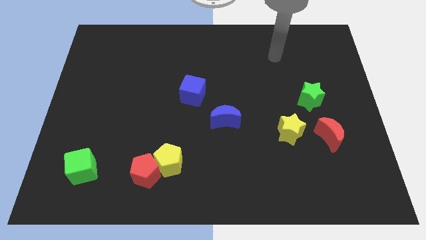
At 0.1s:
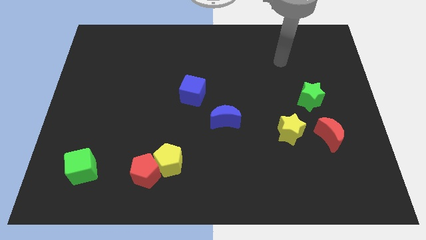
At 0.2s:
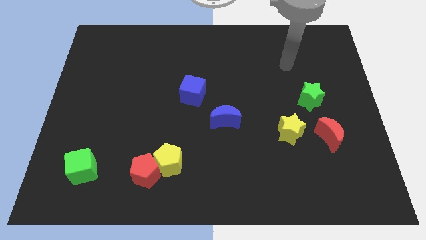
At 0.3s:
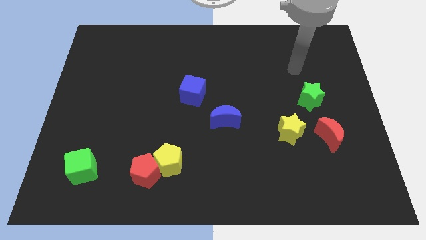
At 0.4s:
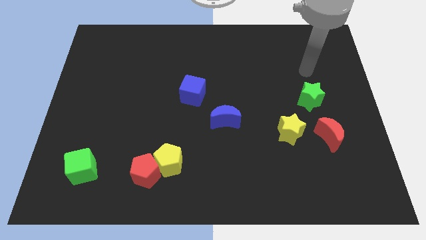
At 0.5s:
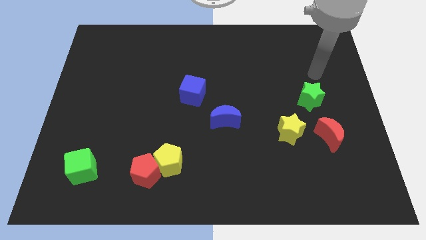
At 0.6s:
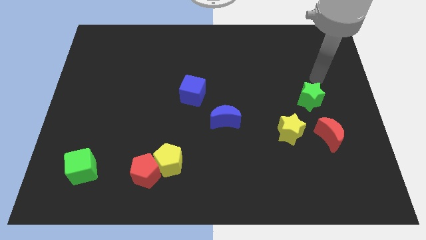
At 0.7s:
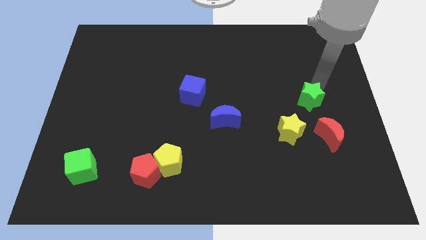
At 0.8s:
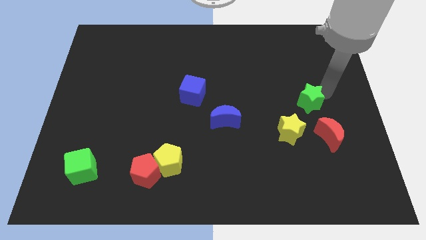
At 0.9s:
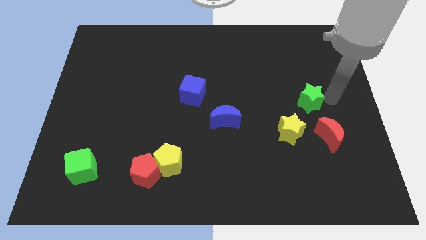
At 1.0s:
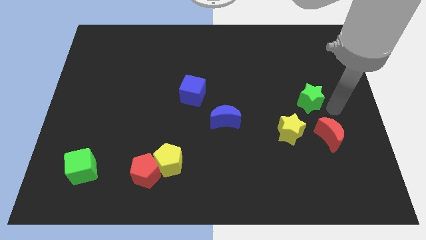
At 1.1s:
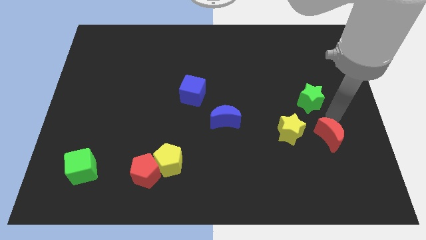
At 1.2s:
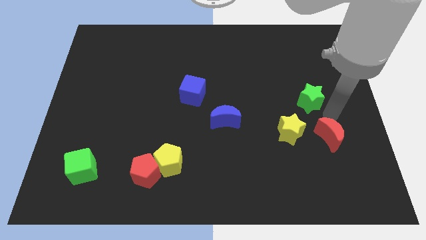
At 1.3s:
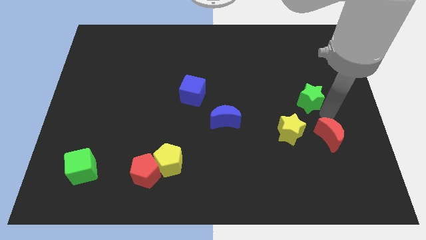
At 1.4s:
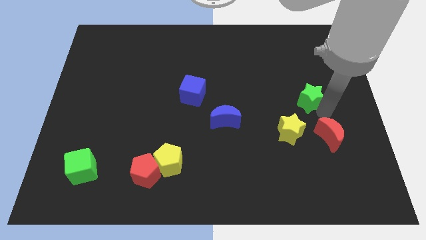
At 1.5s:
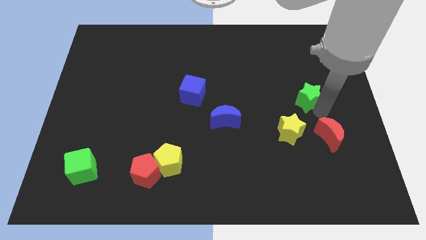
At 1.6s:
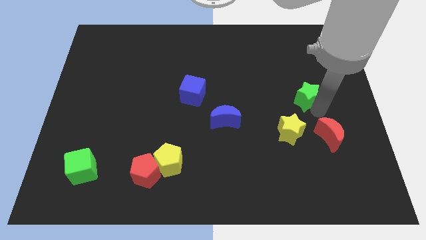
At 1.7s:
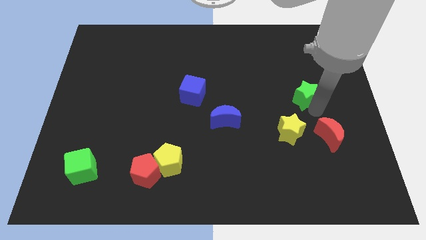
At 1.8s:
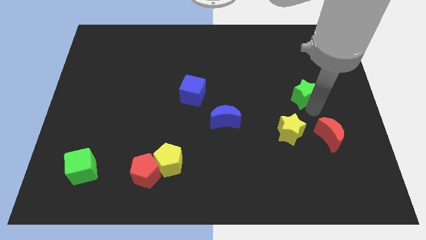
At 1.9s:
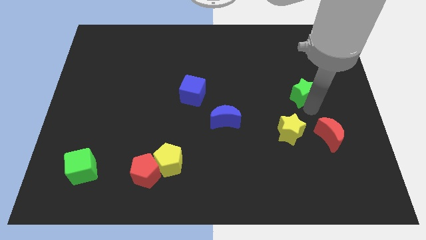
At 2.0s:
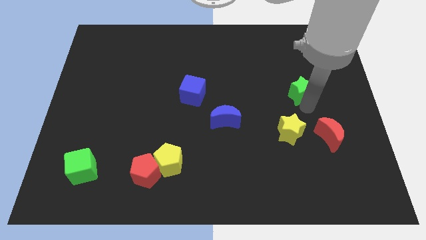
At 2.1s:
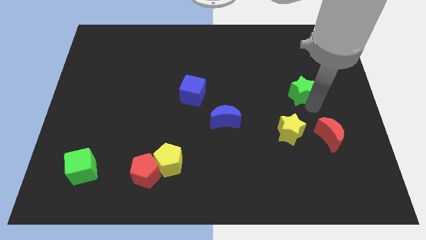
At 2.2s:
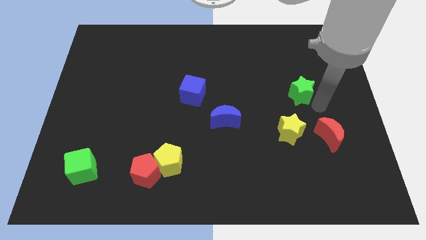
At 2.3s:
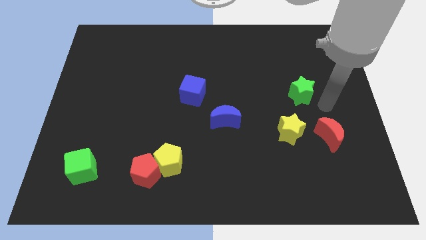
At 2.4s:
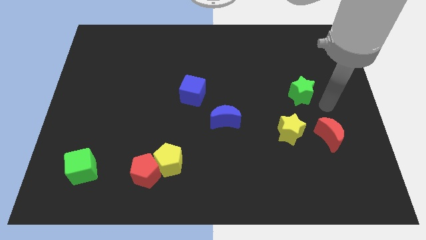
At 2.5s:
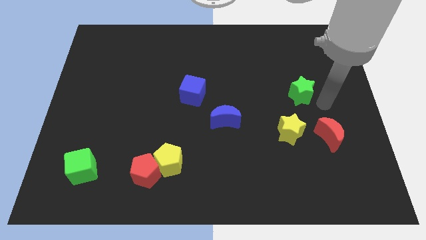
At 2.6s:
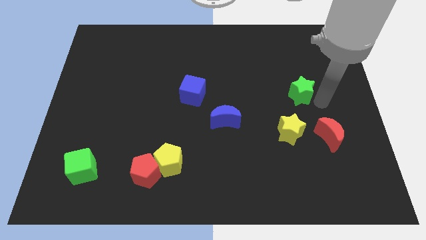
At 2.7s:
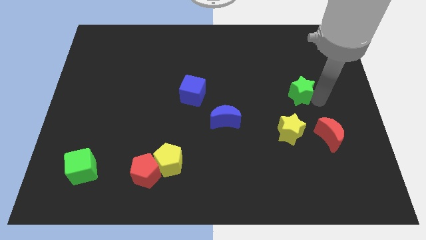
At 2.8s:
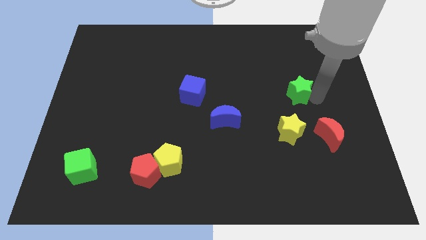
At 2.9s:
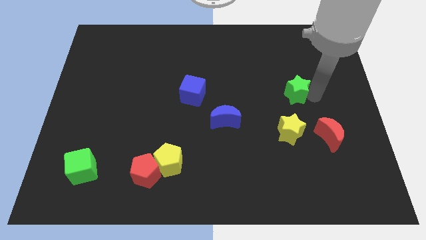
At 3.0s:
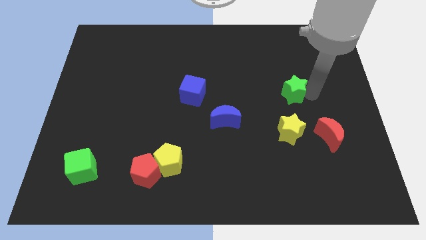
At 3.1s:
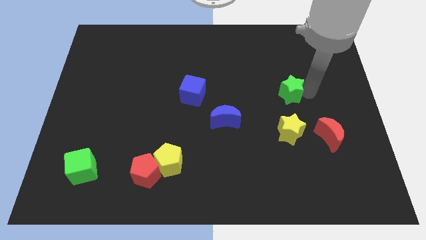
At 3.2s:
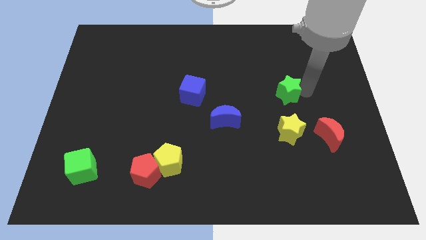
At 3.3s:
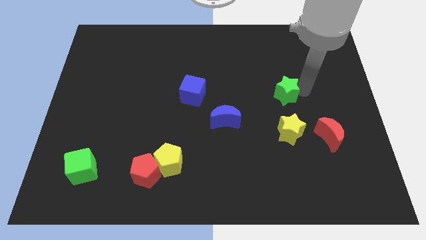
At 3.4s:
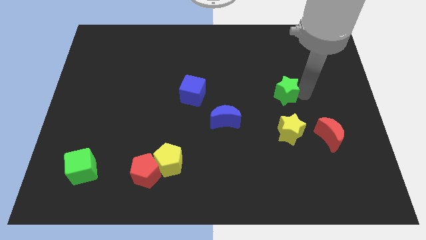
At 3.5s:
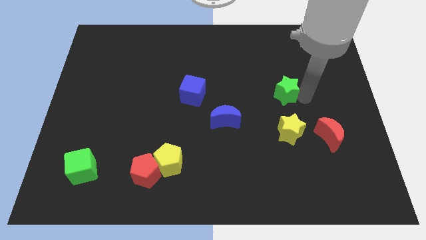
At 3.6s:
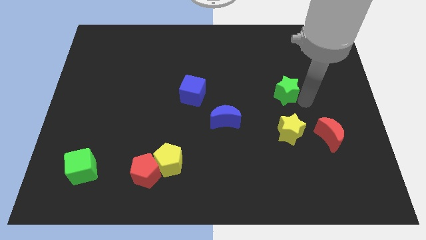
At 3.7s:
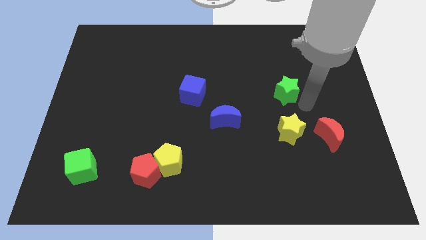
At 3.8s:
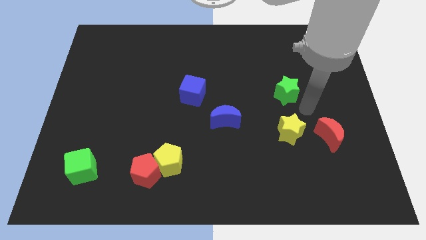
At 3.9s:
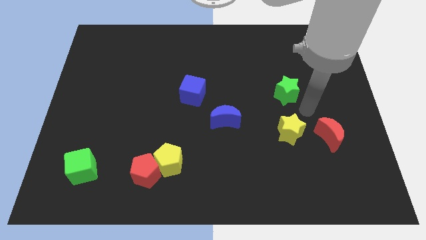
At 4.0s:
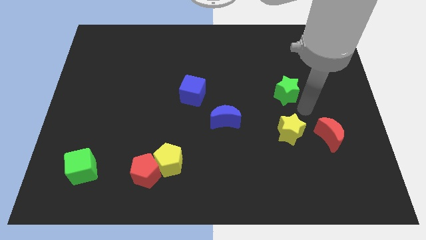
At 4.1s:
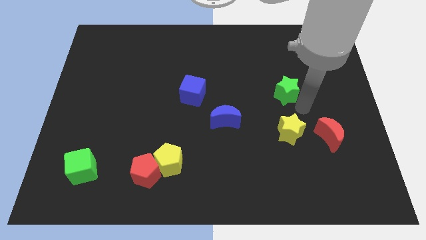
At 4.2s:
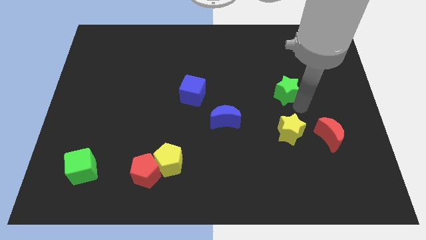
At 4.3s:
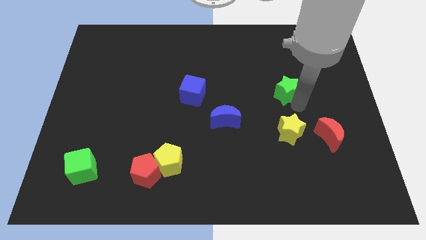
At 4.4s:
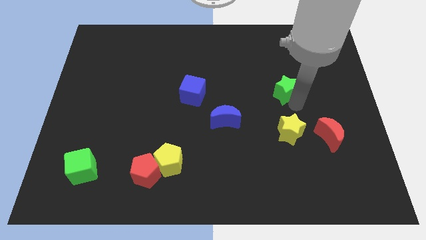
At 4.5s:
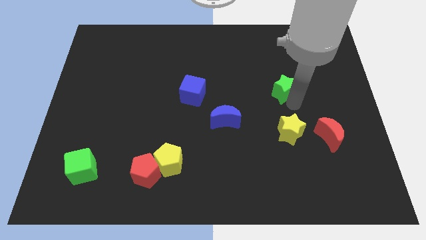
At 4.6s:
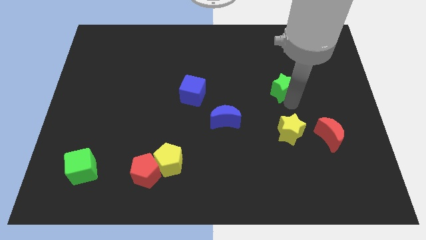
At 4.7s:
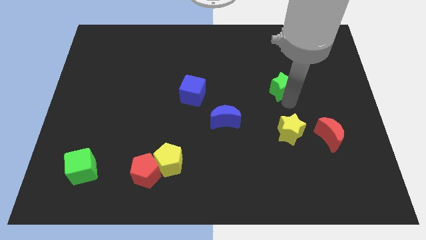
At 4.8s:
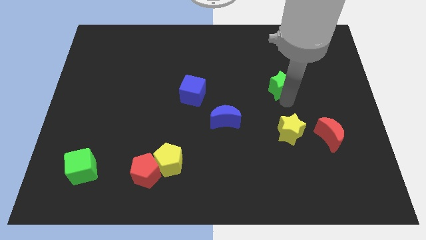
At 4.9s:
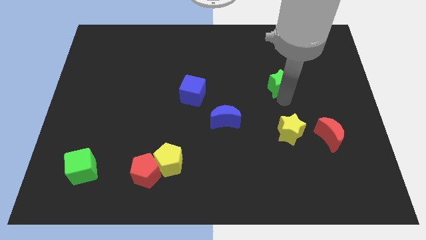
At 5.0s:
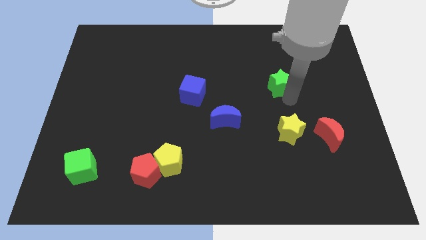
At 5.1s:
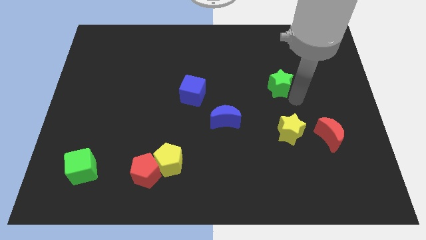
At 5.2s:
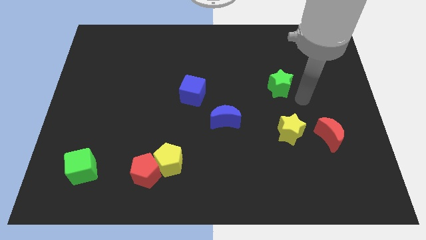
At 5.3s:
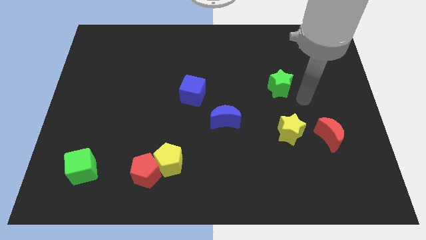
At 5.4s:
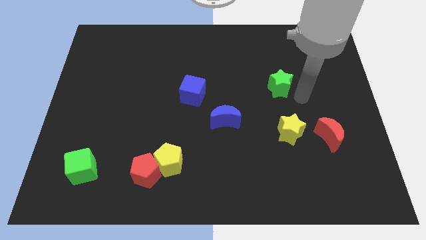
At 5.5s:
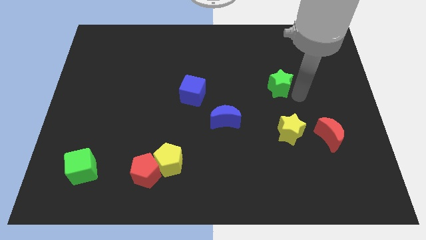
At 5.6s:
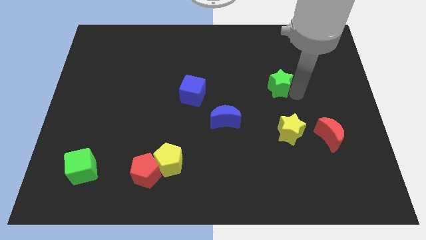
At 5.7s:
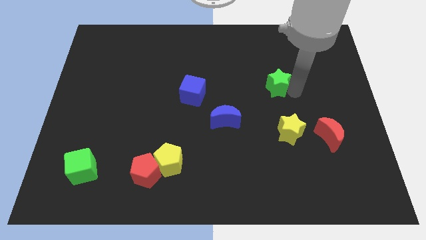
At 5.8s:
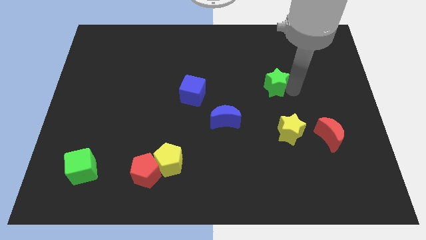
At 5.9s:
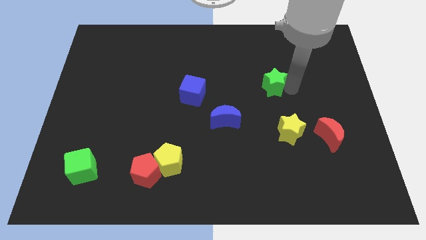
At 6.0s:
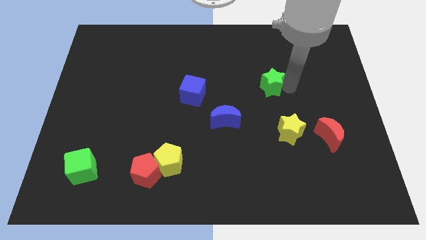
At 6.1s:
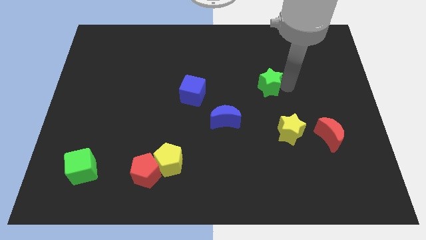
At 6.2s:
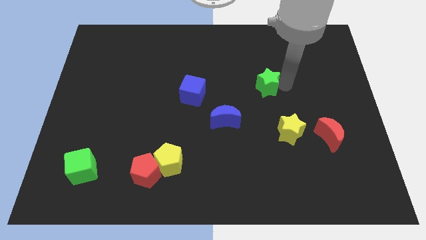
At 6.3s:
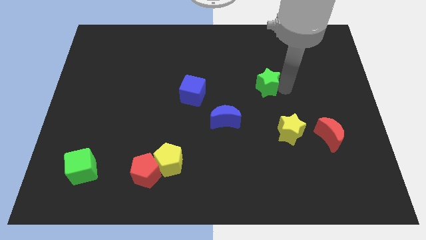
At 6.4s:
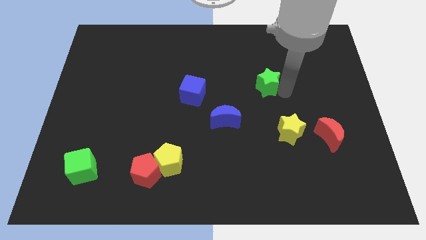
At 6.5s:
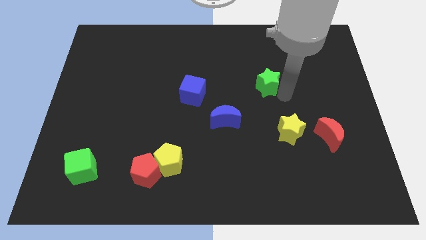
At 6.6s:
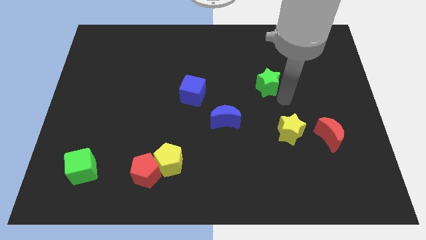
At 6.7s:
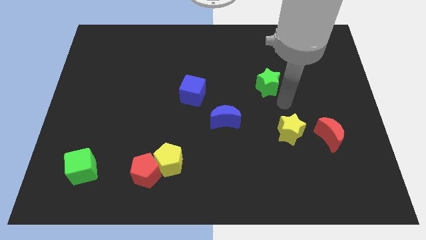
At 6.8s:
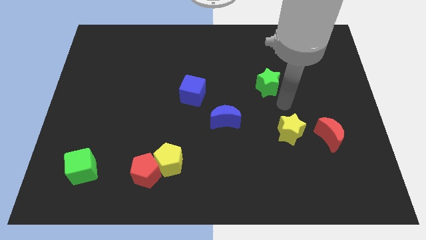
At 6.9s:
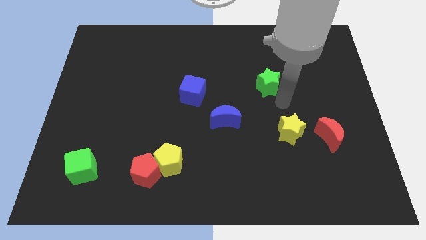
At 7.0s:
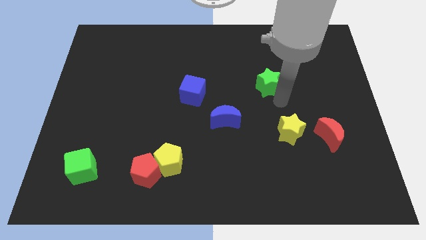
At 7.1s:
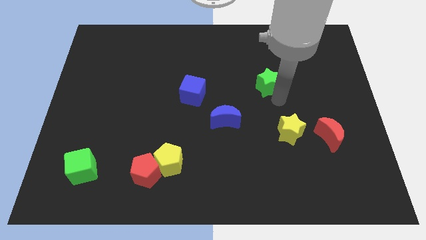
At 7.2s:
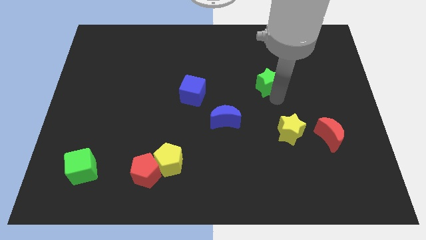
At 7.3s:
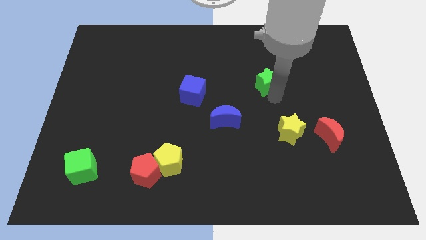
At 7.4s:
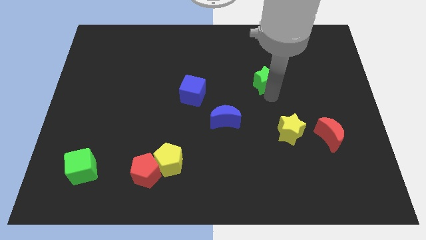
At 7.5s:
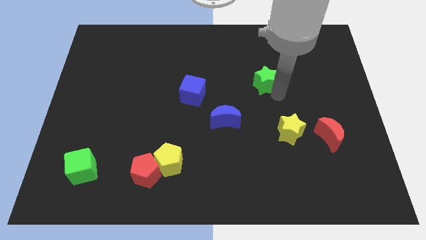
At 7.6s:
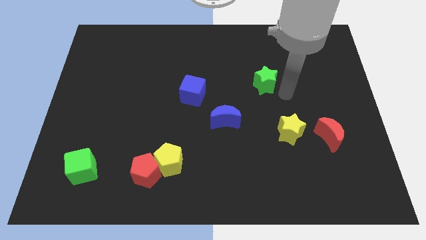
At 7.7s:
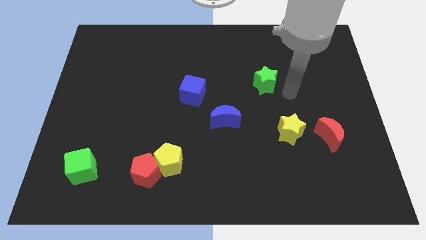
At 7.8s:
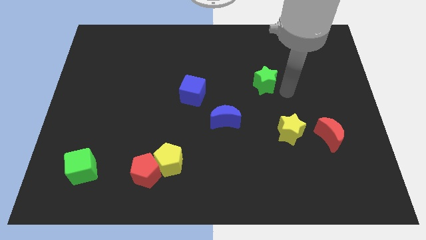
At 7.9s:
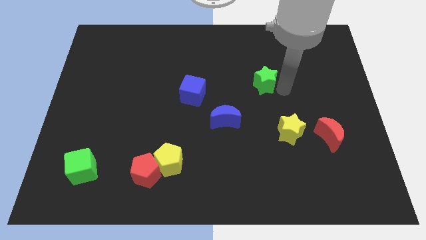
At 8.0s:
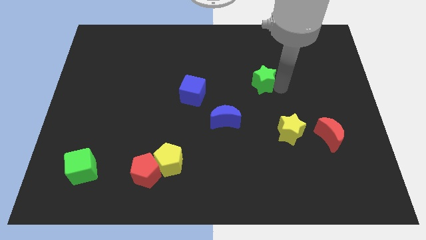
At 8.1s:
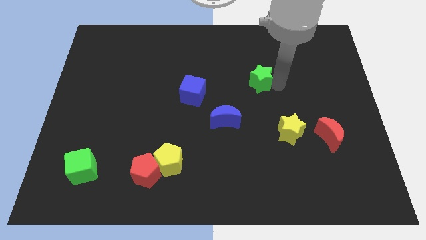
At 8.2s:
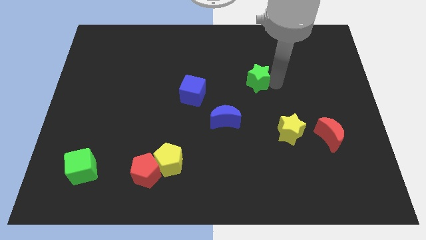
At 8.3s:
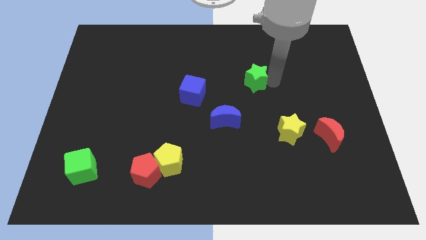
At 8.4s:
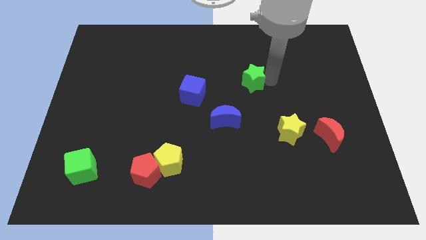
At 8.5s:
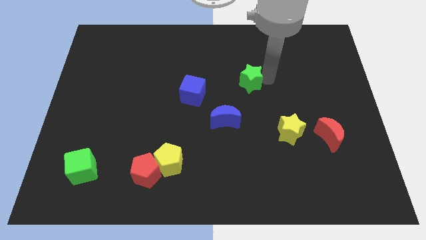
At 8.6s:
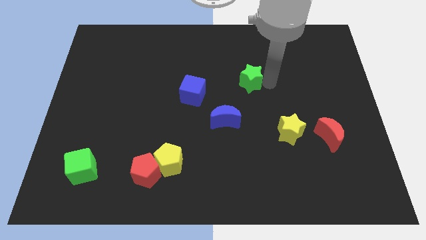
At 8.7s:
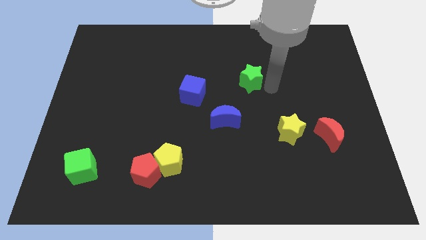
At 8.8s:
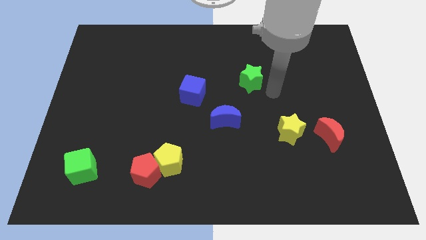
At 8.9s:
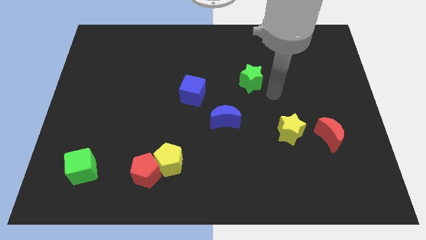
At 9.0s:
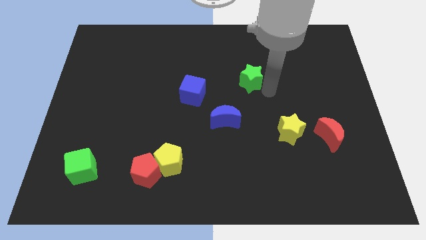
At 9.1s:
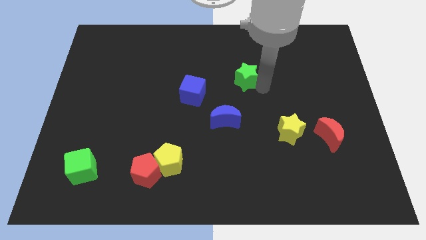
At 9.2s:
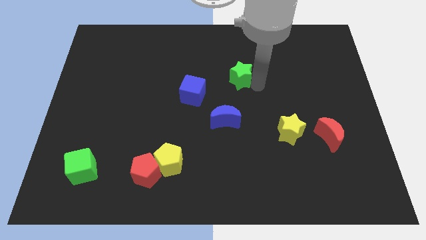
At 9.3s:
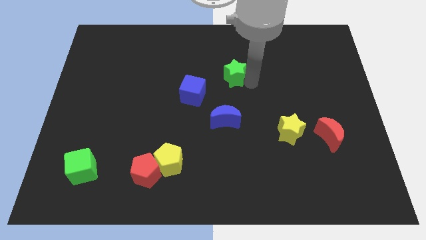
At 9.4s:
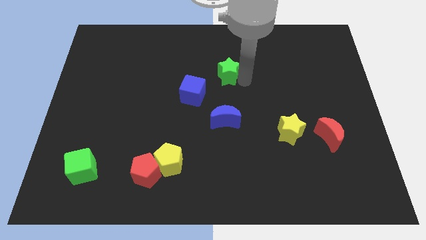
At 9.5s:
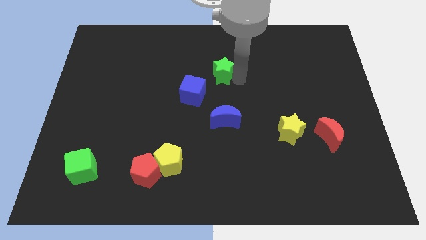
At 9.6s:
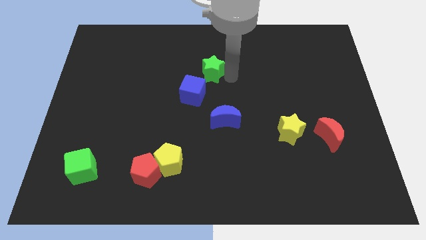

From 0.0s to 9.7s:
move the green star above the blue cube
